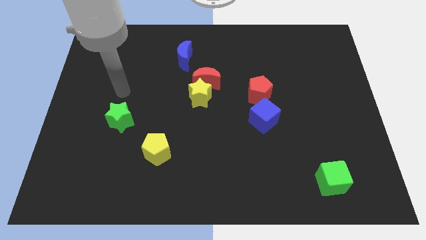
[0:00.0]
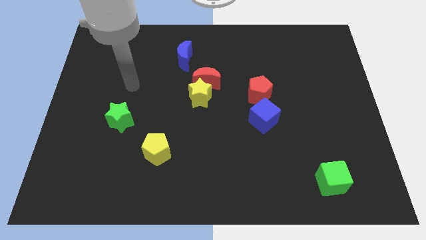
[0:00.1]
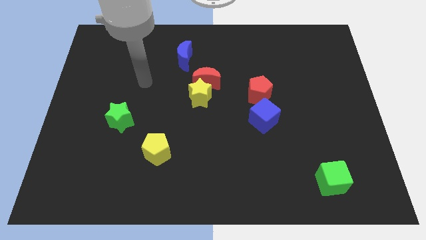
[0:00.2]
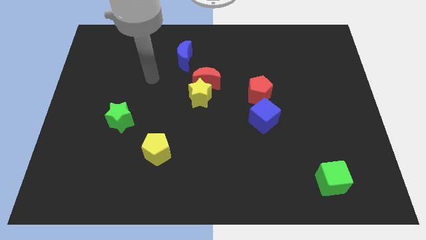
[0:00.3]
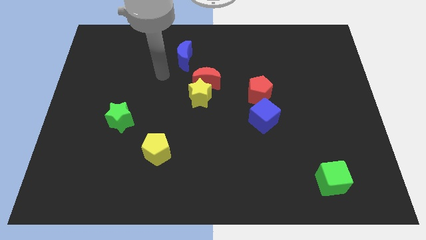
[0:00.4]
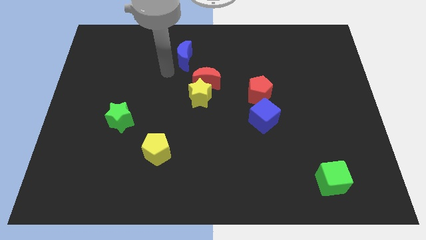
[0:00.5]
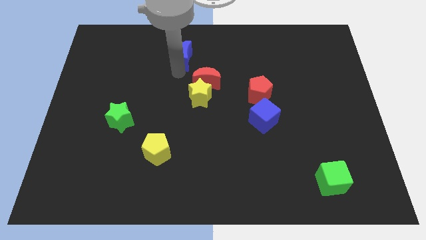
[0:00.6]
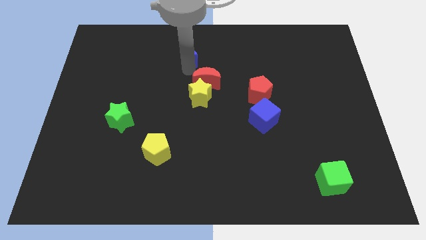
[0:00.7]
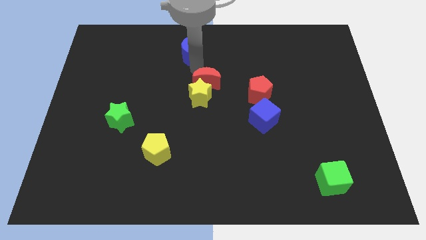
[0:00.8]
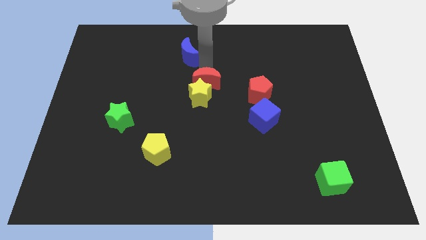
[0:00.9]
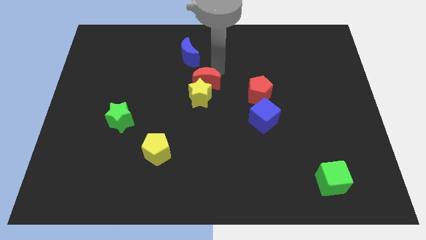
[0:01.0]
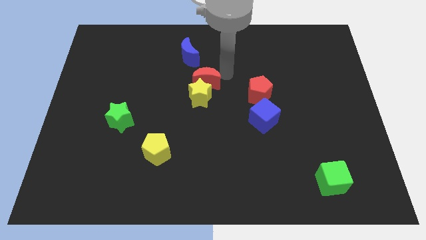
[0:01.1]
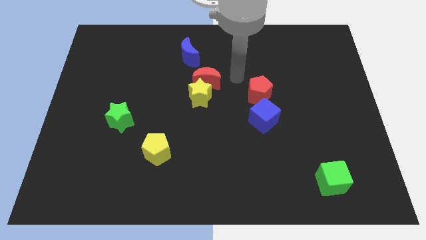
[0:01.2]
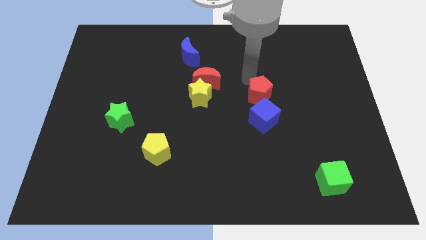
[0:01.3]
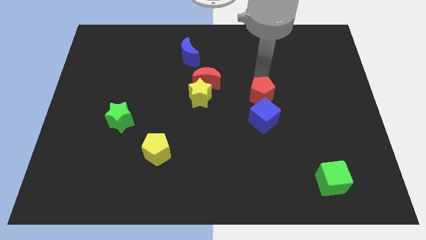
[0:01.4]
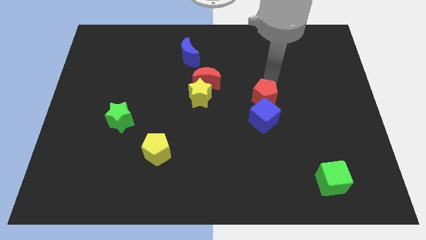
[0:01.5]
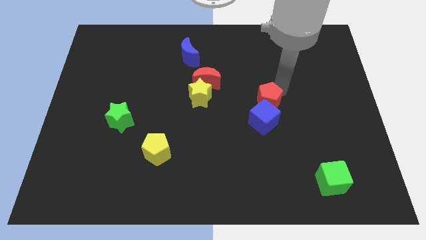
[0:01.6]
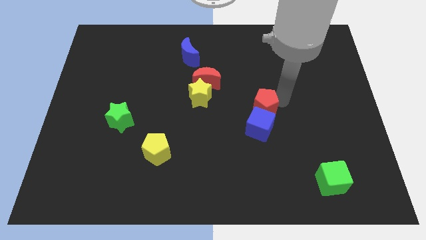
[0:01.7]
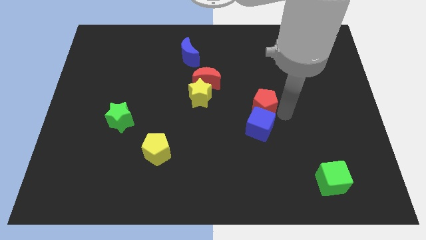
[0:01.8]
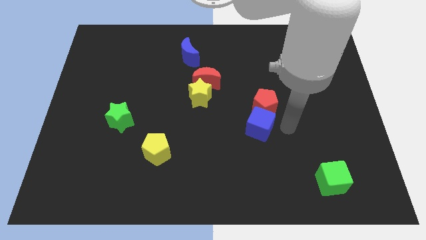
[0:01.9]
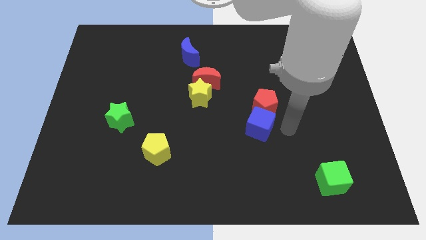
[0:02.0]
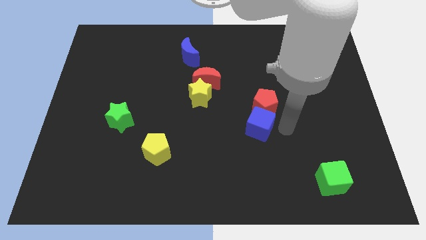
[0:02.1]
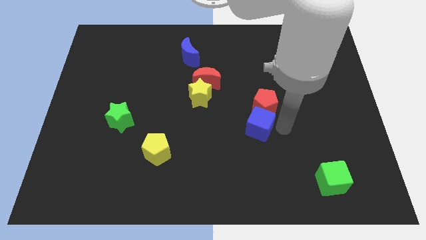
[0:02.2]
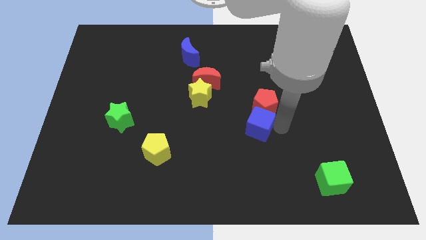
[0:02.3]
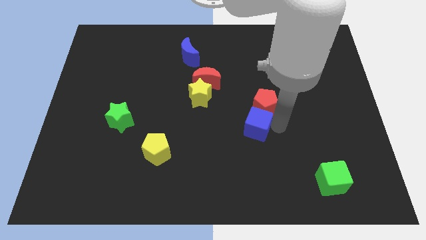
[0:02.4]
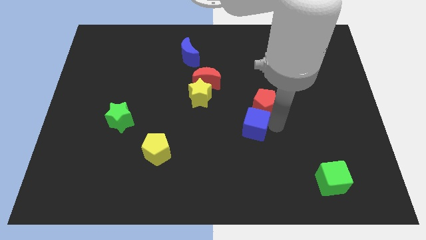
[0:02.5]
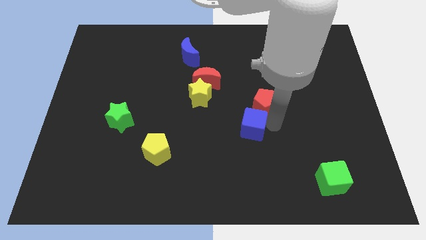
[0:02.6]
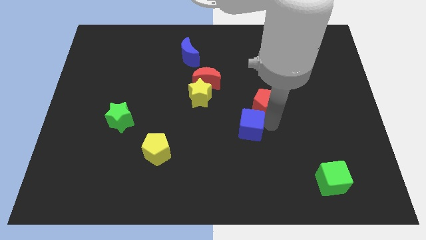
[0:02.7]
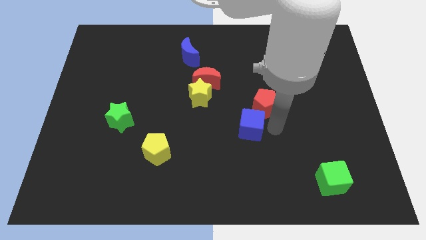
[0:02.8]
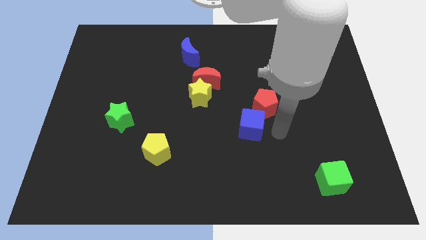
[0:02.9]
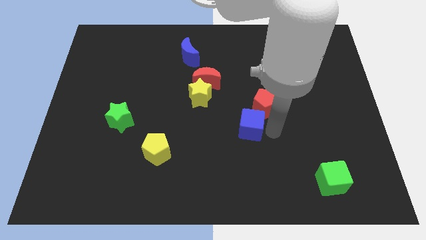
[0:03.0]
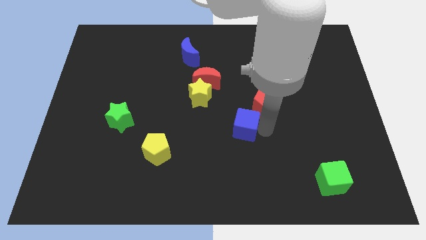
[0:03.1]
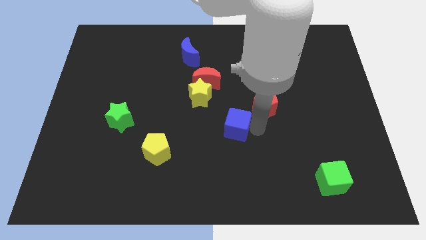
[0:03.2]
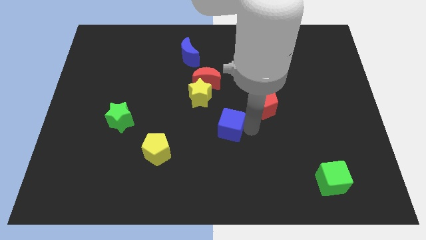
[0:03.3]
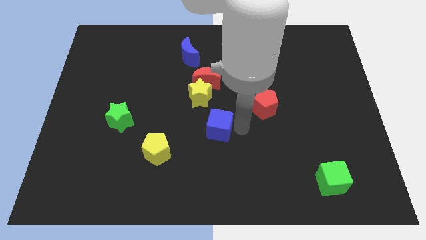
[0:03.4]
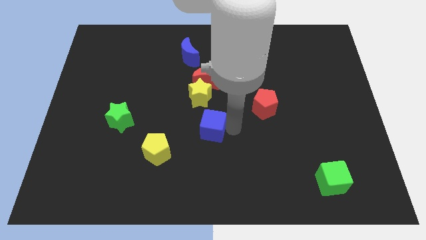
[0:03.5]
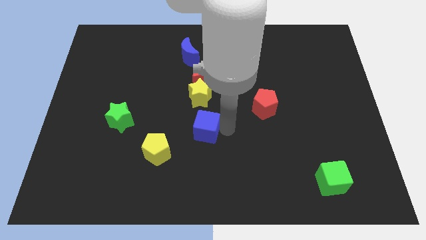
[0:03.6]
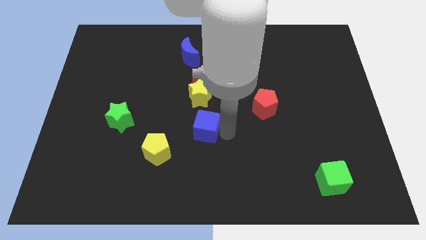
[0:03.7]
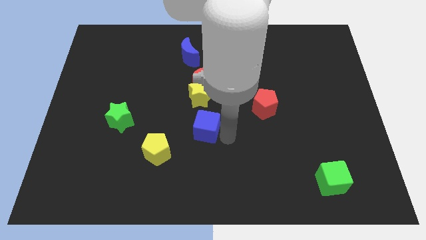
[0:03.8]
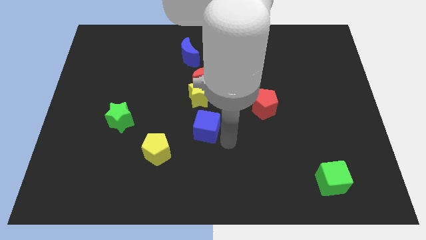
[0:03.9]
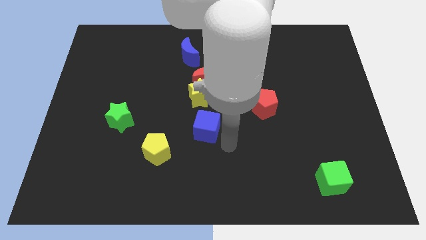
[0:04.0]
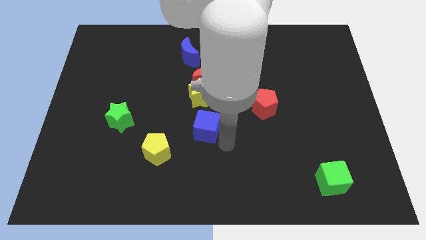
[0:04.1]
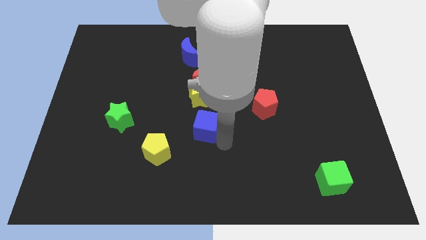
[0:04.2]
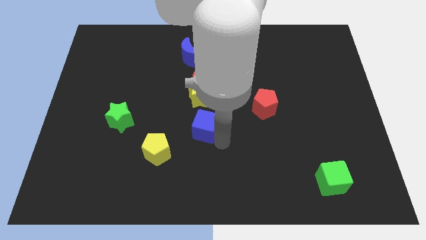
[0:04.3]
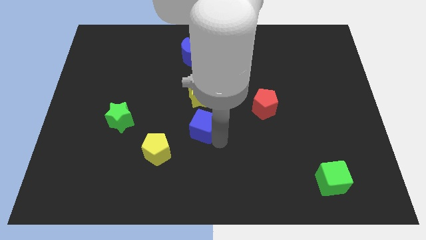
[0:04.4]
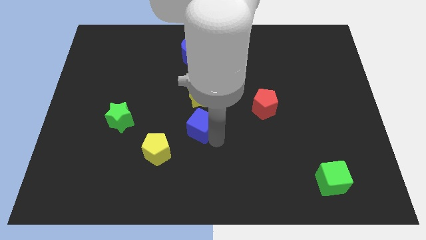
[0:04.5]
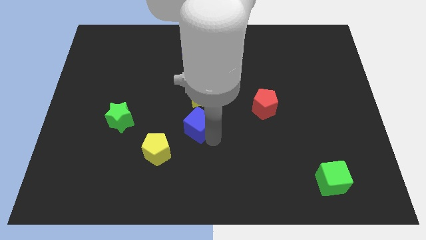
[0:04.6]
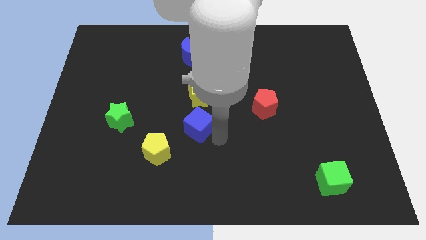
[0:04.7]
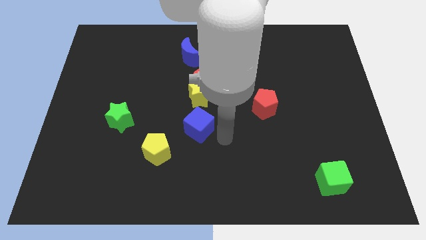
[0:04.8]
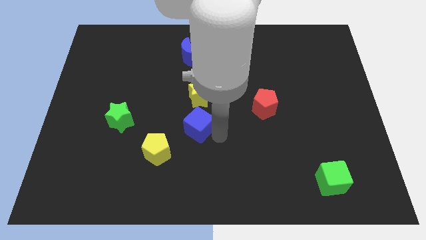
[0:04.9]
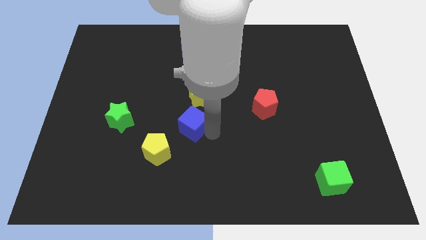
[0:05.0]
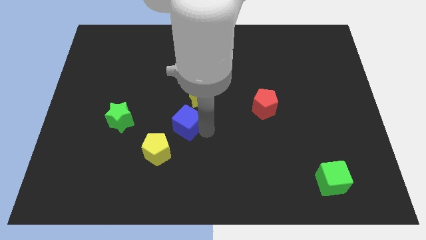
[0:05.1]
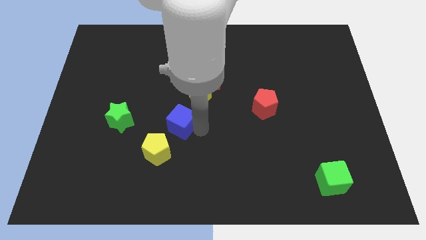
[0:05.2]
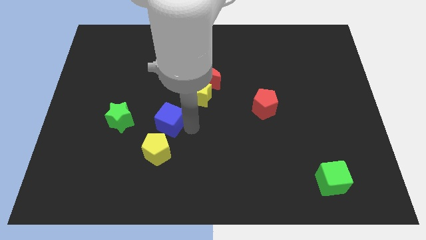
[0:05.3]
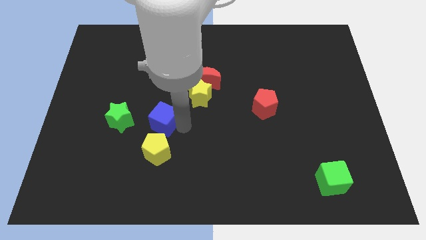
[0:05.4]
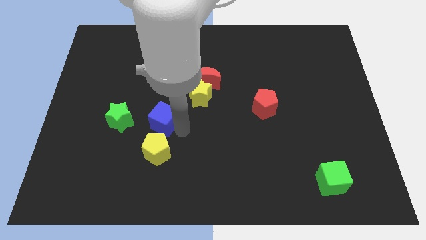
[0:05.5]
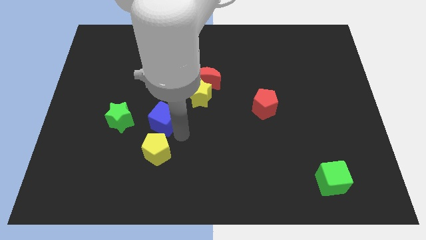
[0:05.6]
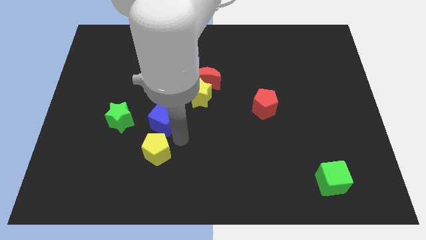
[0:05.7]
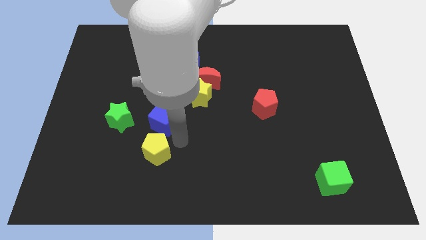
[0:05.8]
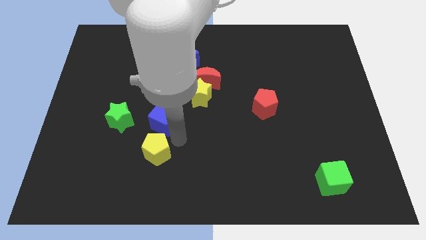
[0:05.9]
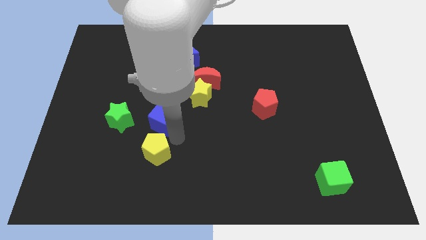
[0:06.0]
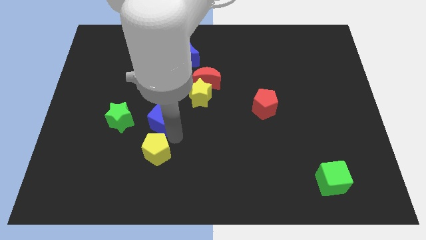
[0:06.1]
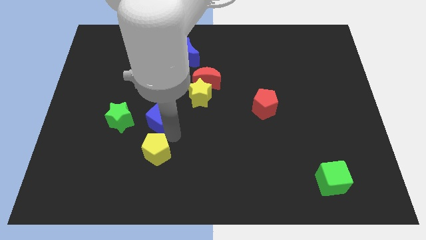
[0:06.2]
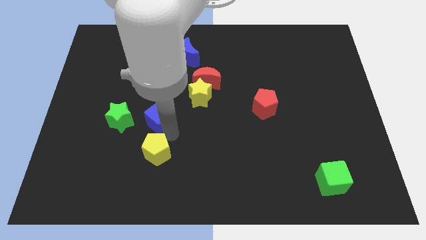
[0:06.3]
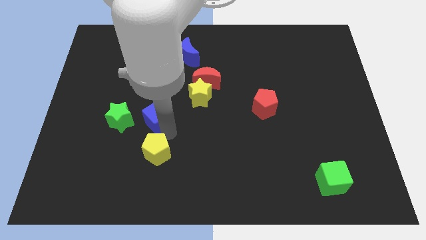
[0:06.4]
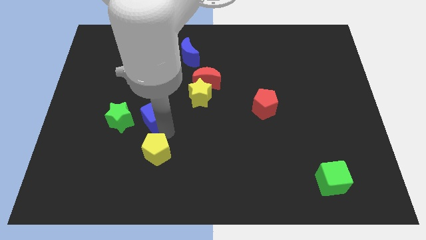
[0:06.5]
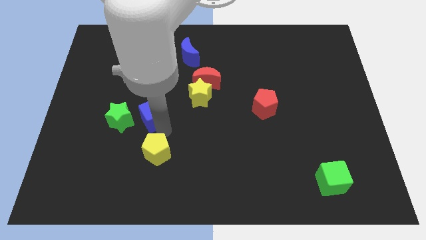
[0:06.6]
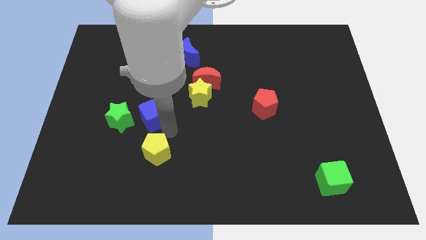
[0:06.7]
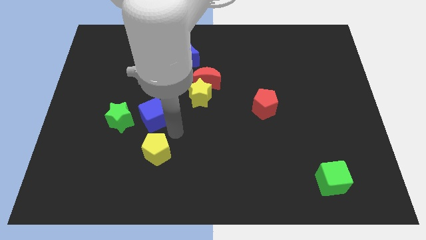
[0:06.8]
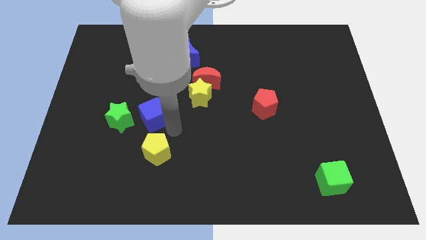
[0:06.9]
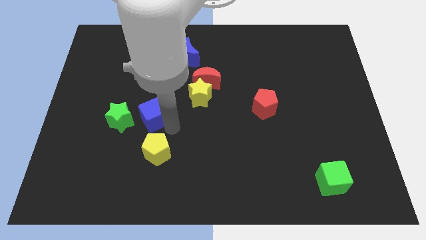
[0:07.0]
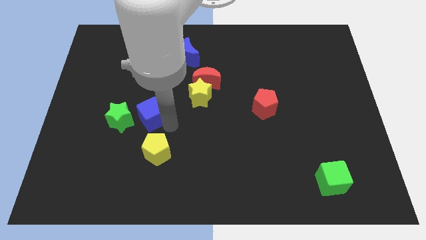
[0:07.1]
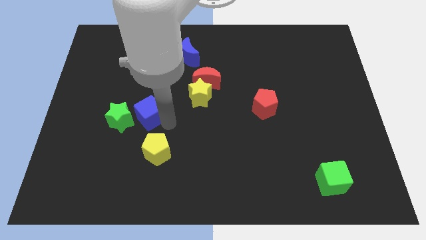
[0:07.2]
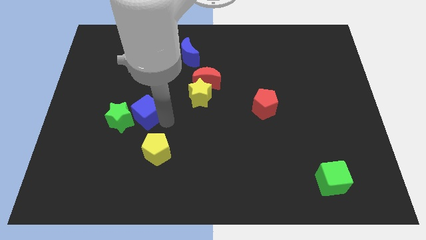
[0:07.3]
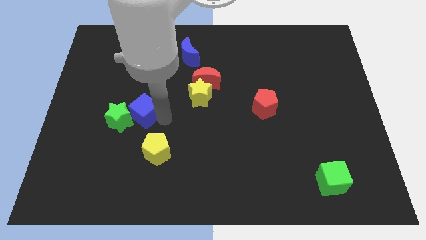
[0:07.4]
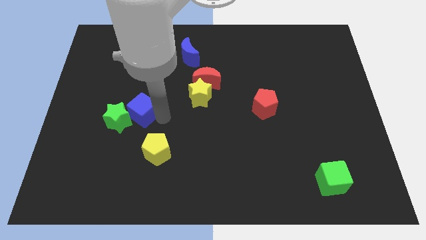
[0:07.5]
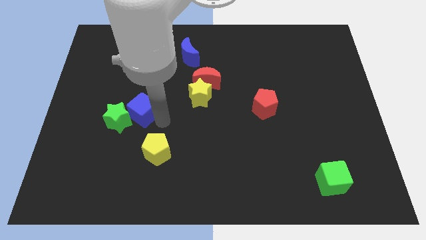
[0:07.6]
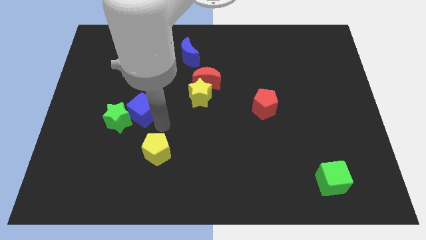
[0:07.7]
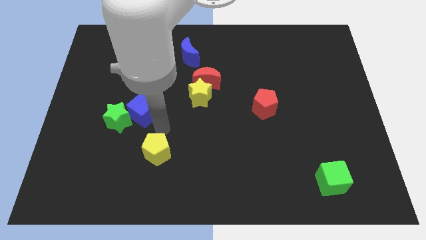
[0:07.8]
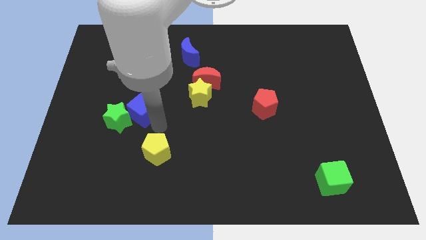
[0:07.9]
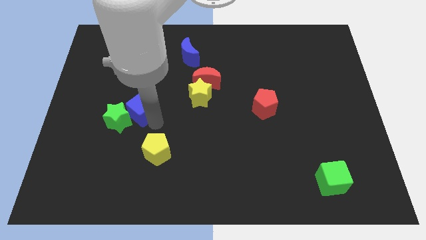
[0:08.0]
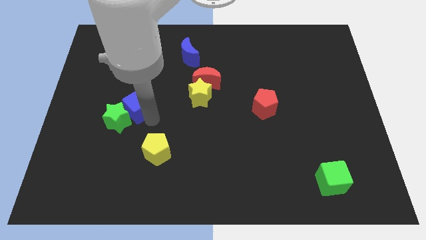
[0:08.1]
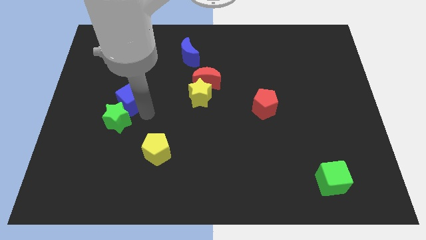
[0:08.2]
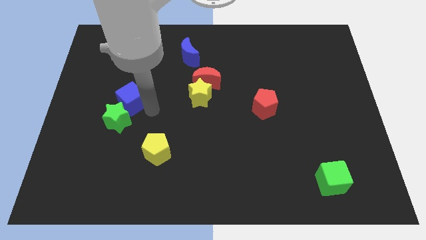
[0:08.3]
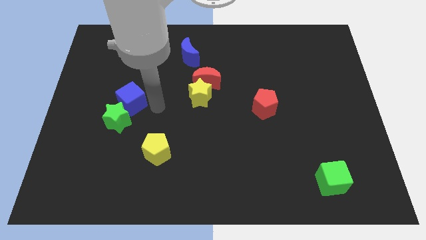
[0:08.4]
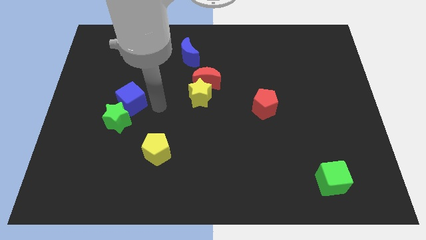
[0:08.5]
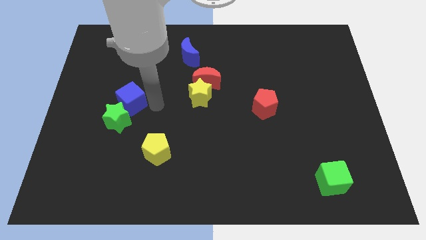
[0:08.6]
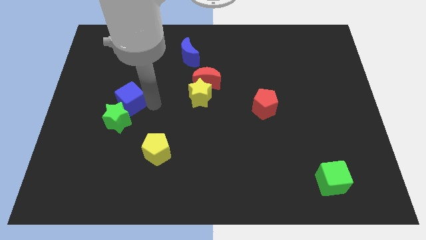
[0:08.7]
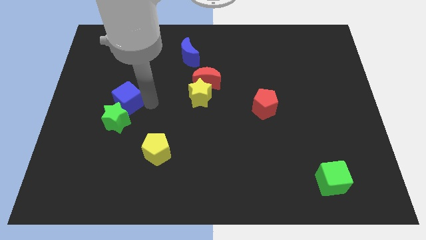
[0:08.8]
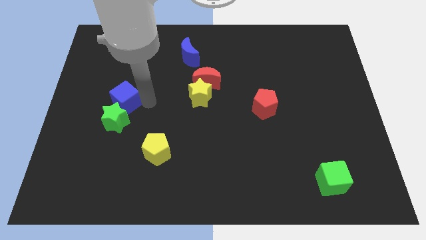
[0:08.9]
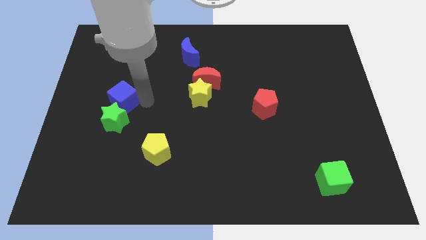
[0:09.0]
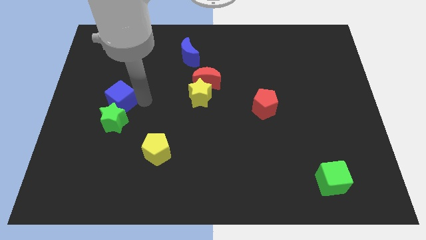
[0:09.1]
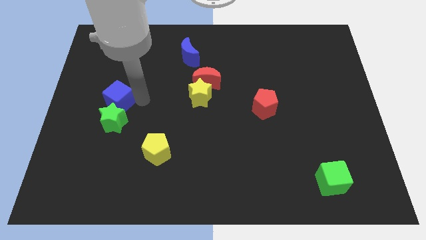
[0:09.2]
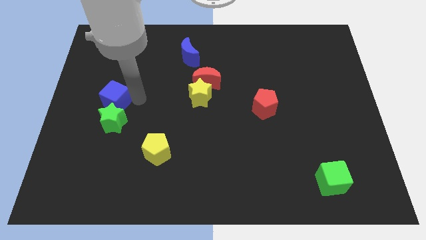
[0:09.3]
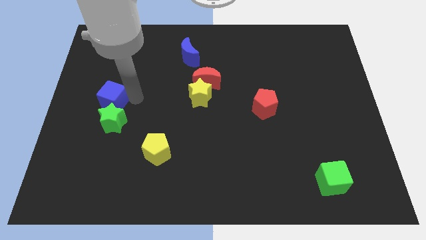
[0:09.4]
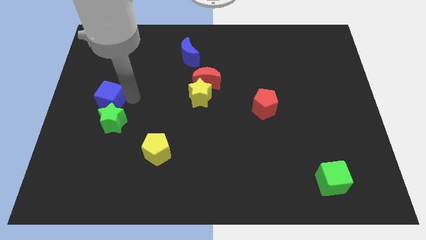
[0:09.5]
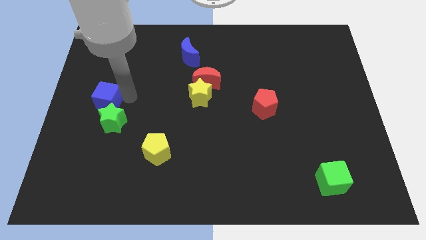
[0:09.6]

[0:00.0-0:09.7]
push the blue cube to the left side
